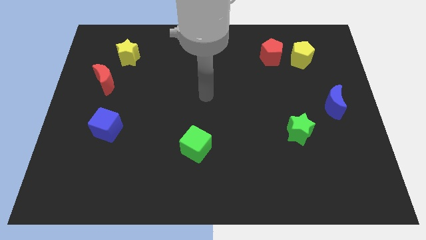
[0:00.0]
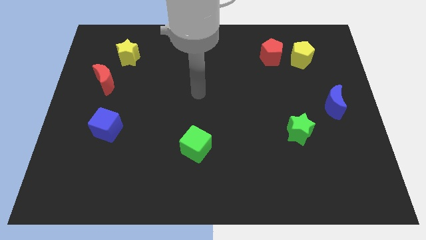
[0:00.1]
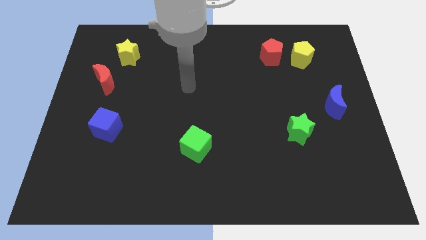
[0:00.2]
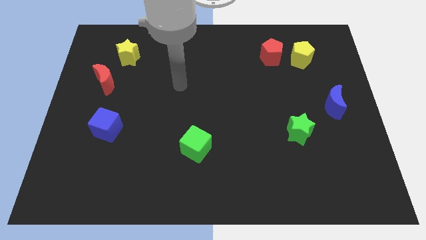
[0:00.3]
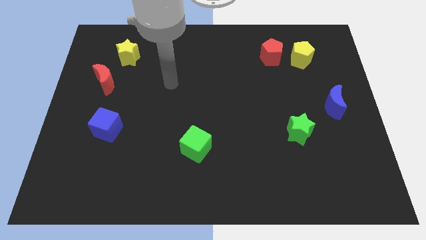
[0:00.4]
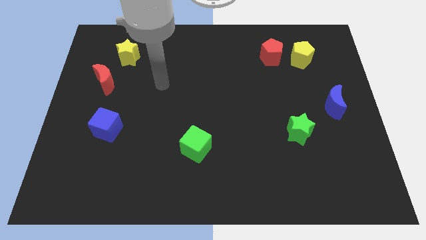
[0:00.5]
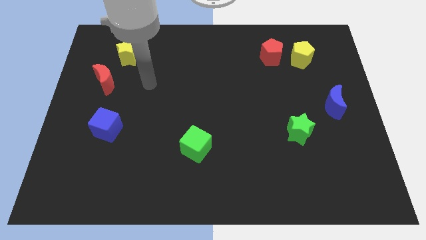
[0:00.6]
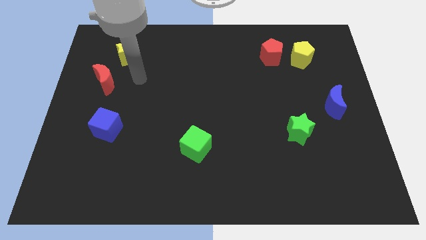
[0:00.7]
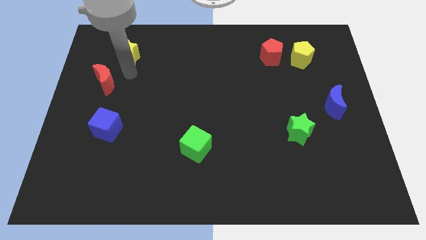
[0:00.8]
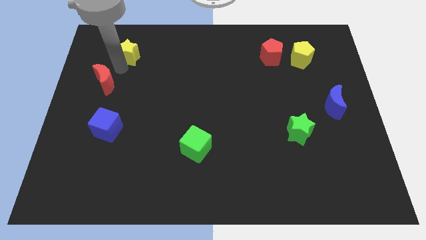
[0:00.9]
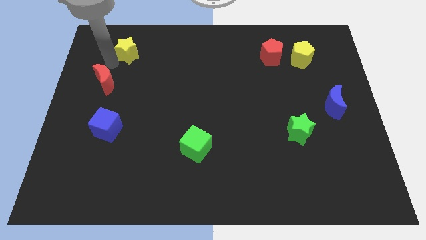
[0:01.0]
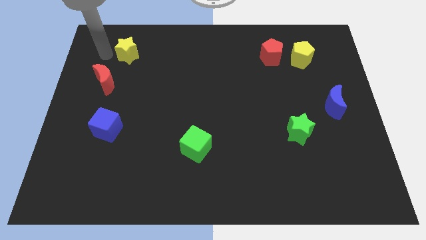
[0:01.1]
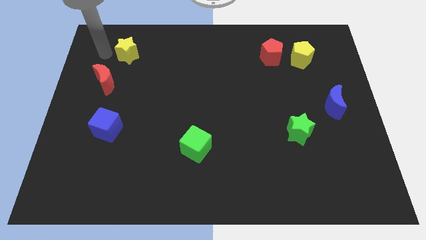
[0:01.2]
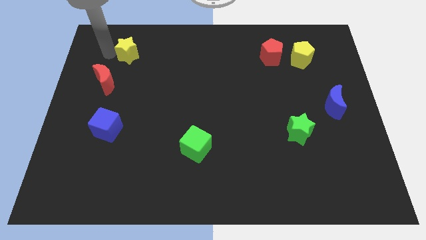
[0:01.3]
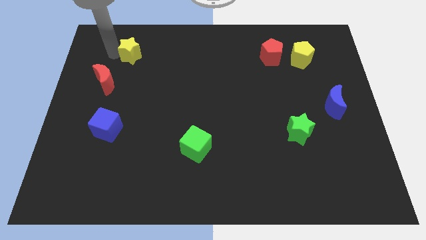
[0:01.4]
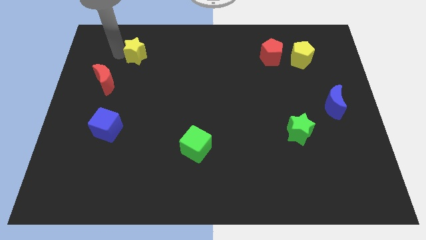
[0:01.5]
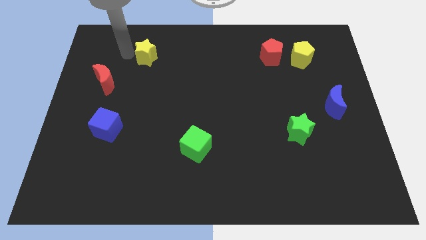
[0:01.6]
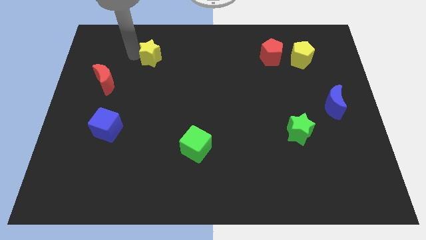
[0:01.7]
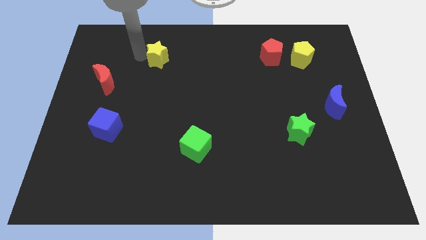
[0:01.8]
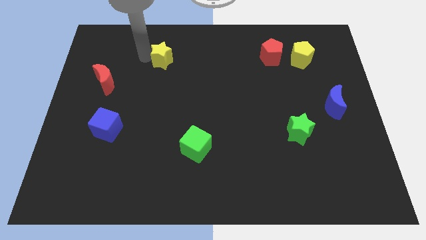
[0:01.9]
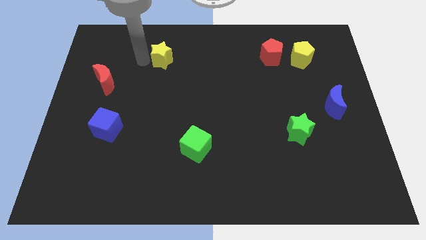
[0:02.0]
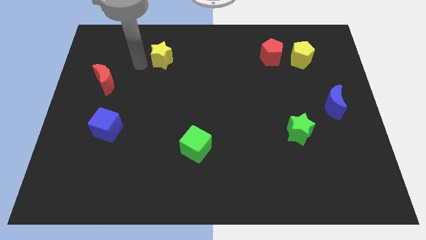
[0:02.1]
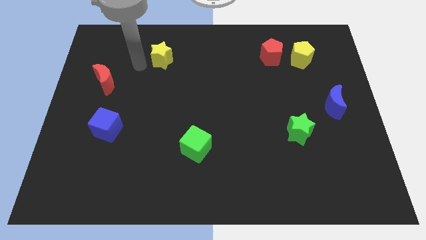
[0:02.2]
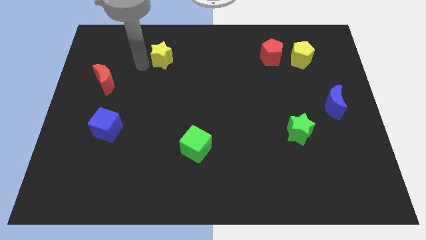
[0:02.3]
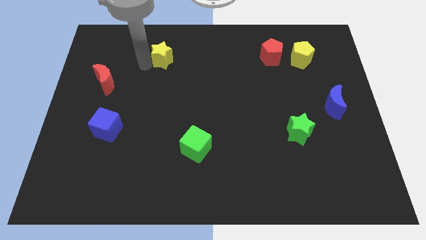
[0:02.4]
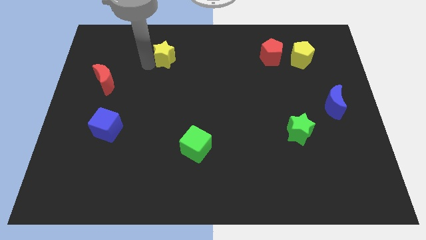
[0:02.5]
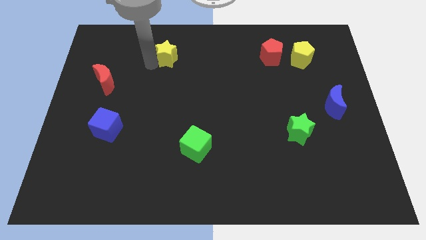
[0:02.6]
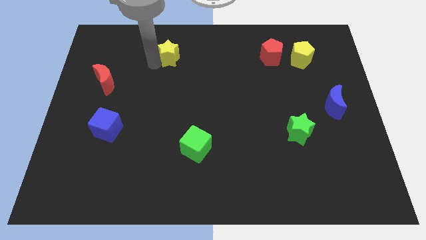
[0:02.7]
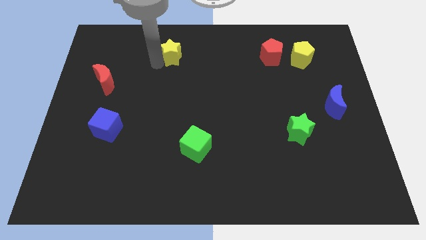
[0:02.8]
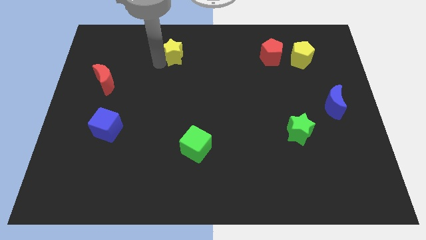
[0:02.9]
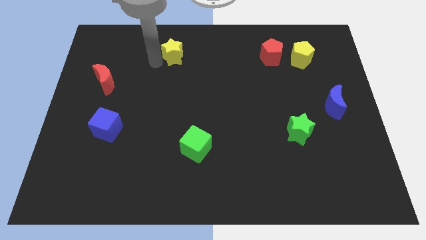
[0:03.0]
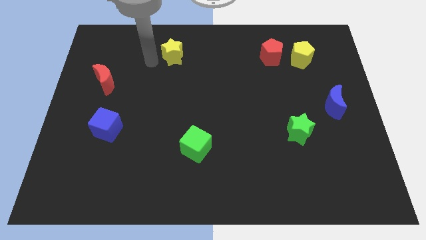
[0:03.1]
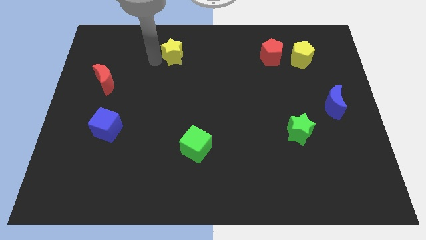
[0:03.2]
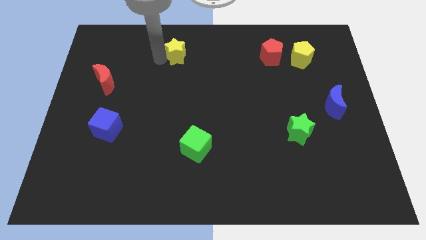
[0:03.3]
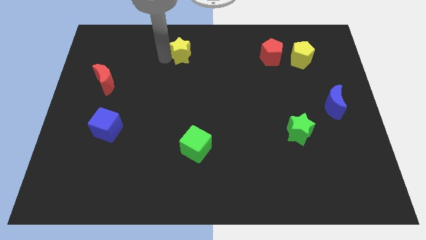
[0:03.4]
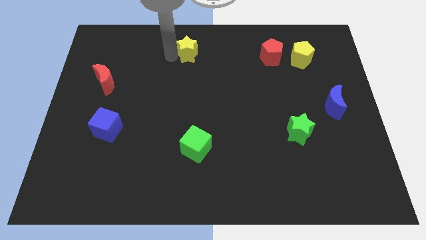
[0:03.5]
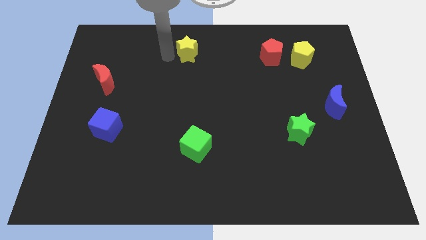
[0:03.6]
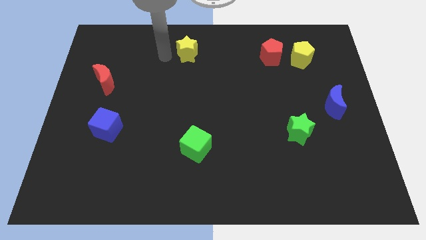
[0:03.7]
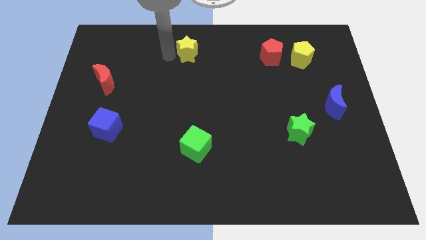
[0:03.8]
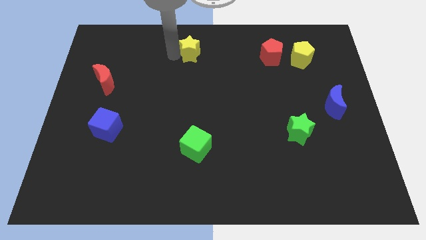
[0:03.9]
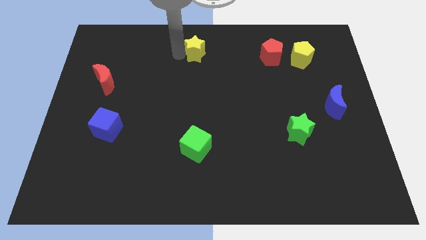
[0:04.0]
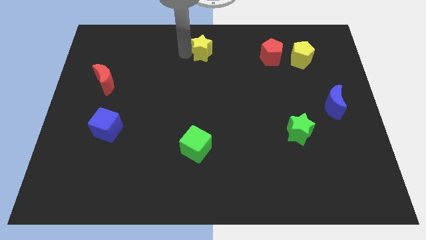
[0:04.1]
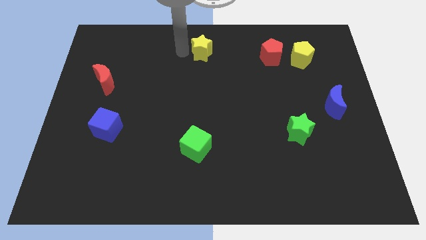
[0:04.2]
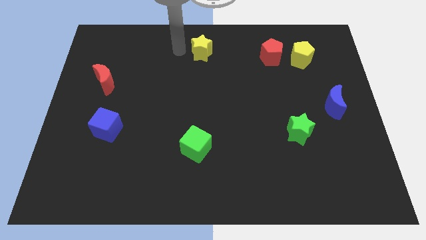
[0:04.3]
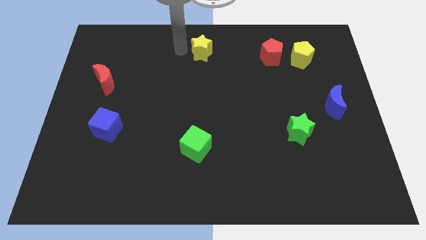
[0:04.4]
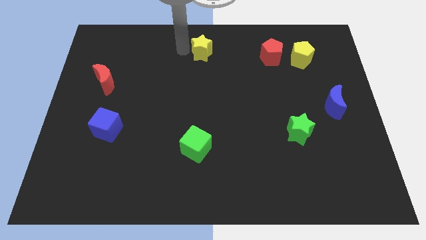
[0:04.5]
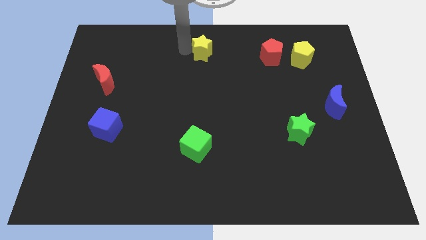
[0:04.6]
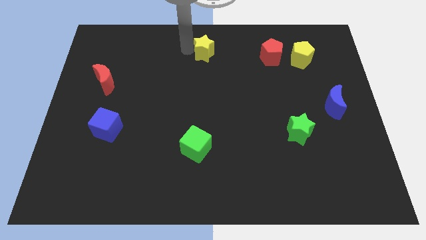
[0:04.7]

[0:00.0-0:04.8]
push the yellow star right

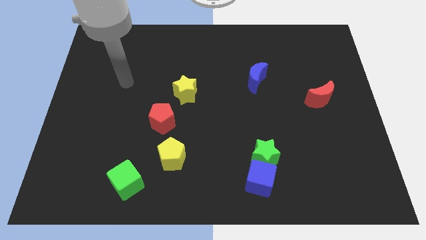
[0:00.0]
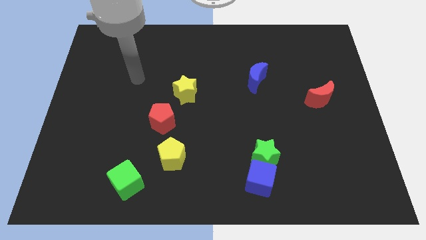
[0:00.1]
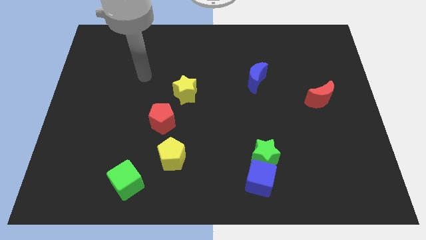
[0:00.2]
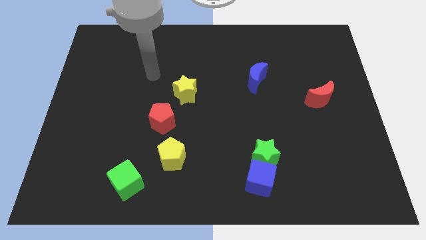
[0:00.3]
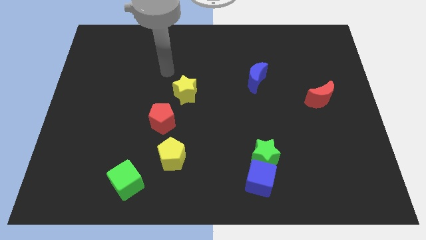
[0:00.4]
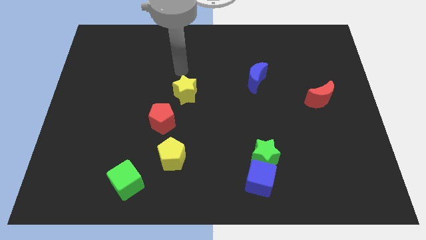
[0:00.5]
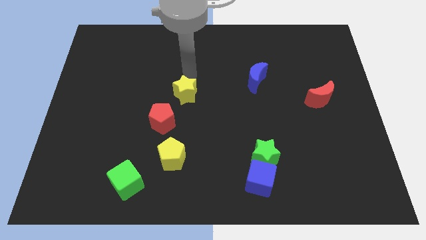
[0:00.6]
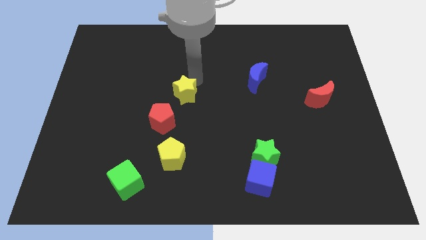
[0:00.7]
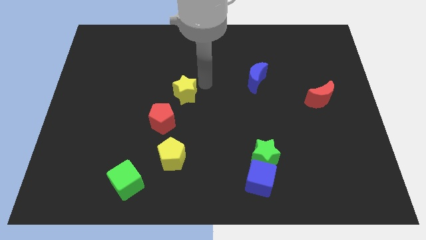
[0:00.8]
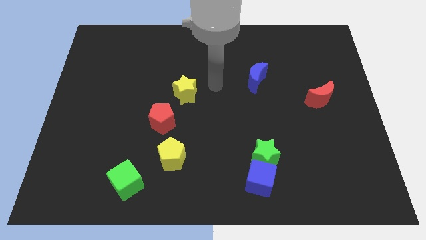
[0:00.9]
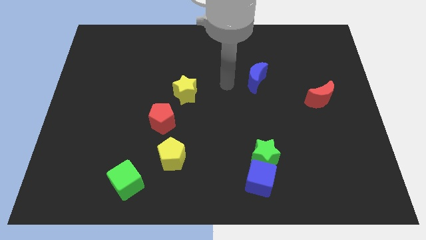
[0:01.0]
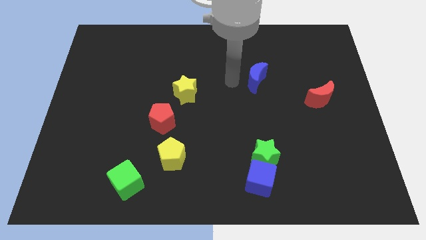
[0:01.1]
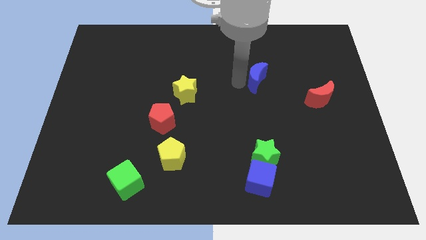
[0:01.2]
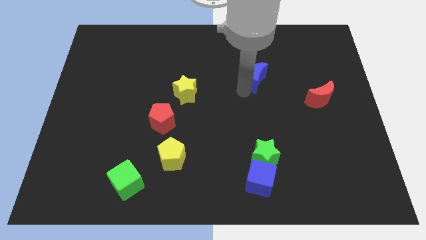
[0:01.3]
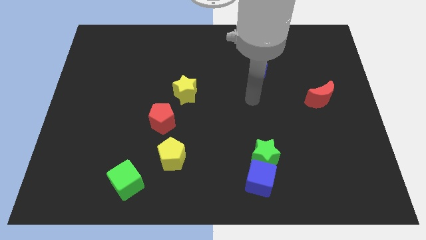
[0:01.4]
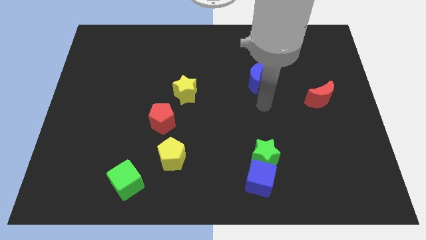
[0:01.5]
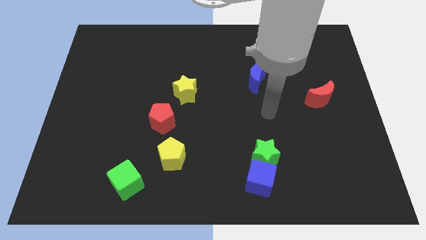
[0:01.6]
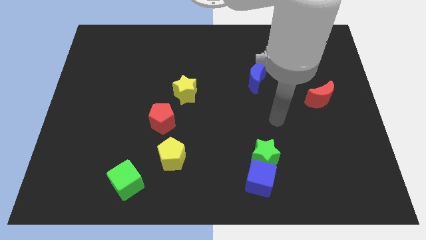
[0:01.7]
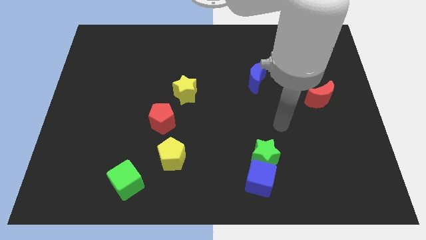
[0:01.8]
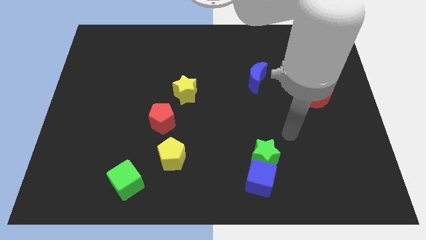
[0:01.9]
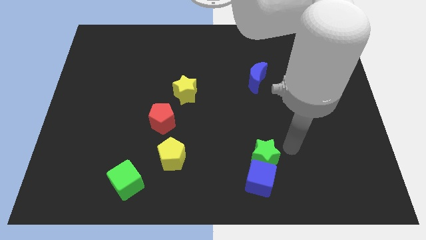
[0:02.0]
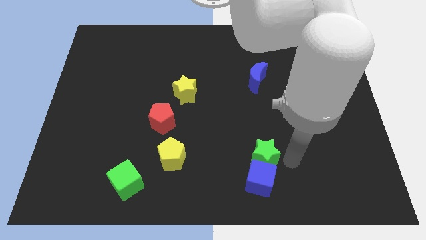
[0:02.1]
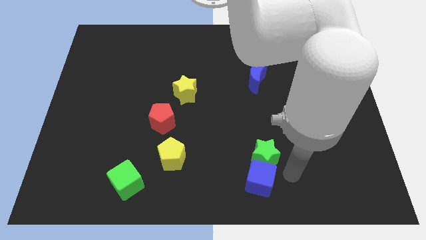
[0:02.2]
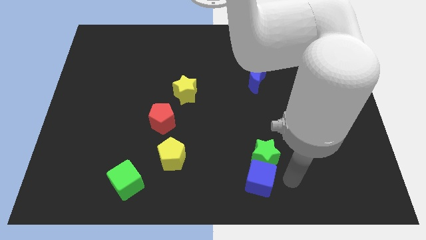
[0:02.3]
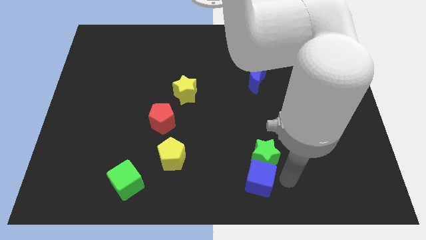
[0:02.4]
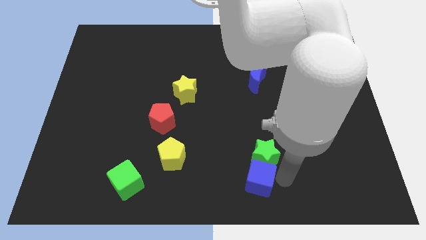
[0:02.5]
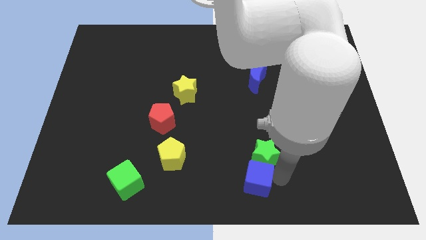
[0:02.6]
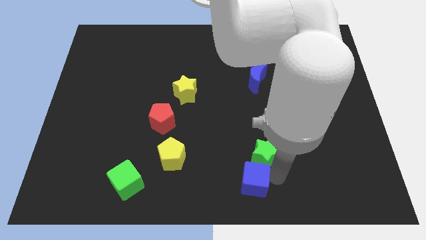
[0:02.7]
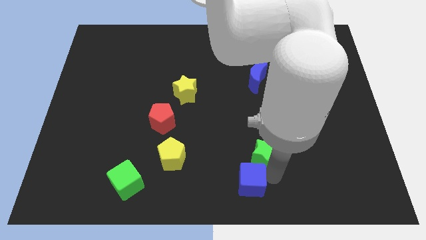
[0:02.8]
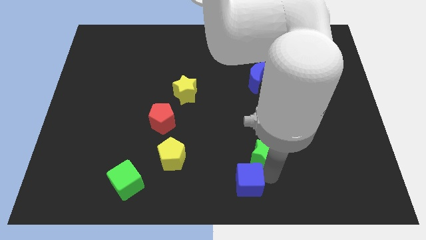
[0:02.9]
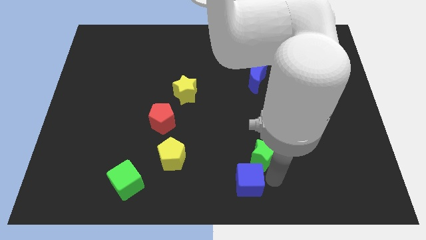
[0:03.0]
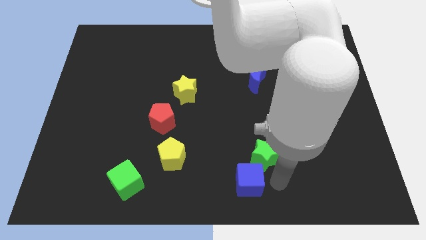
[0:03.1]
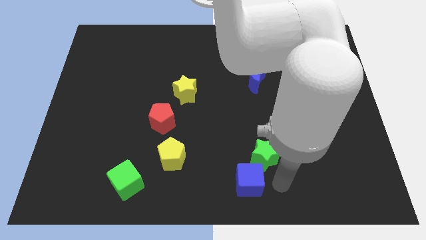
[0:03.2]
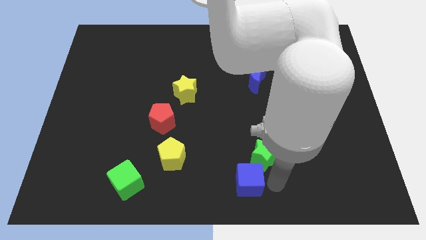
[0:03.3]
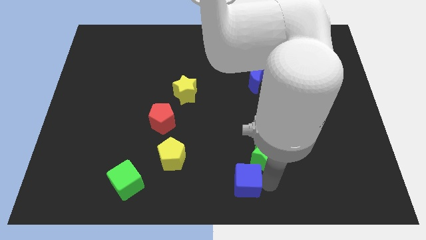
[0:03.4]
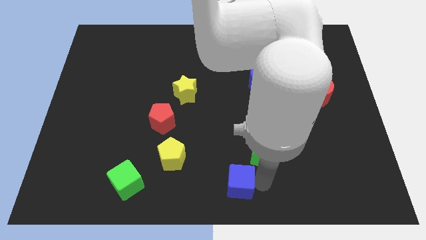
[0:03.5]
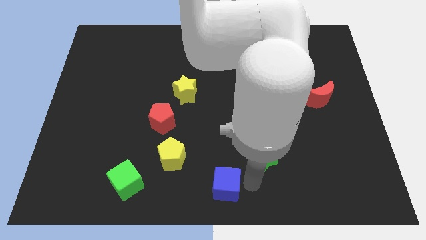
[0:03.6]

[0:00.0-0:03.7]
slightly slide the blue cube left
